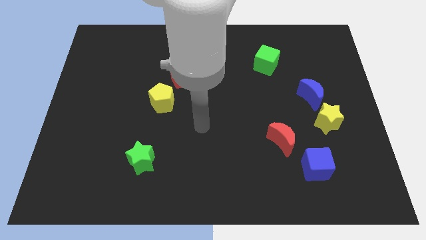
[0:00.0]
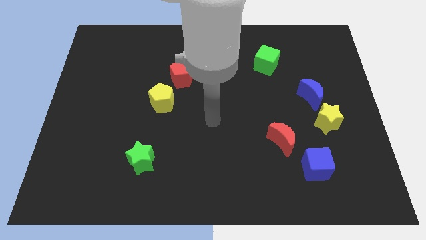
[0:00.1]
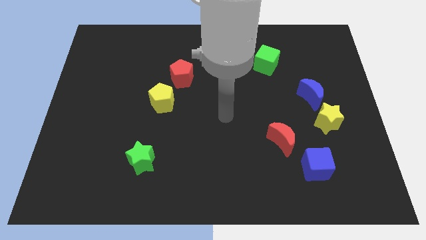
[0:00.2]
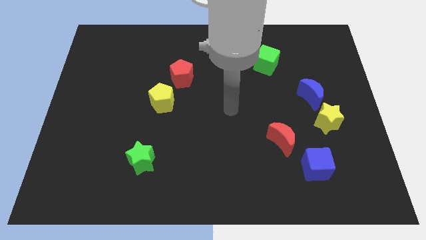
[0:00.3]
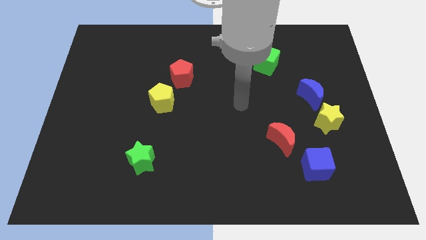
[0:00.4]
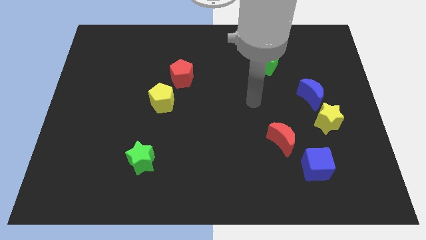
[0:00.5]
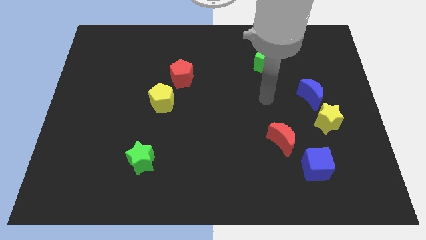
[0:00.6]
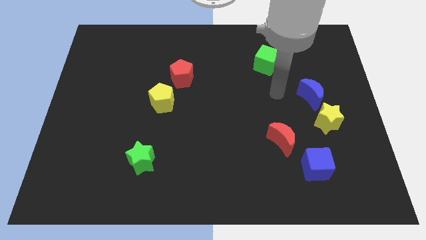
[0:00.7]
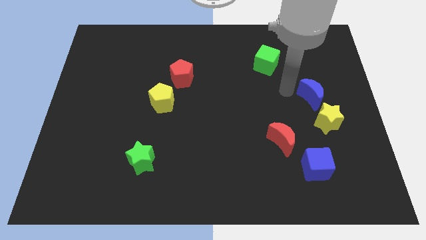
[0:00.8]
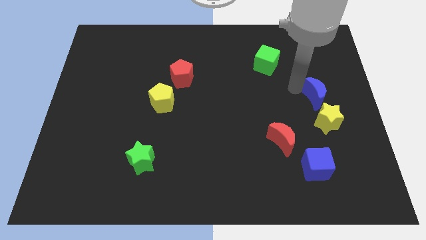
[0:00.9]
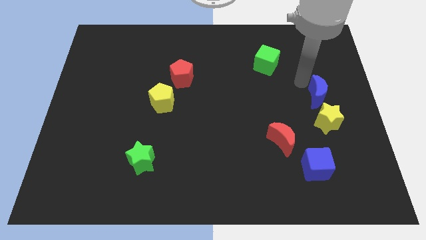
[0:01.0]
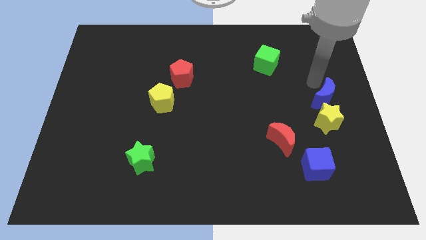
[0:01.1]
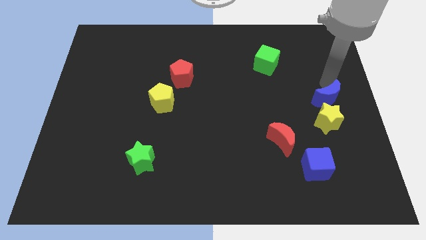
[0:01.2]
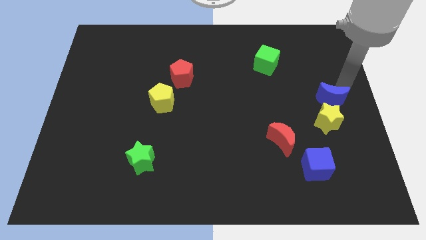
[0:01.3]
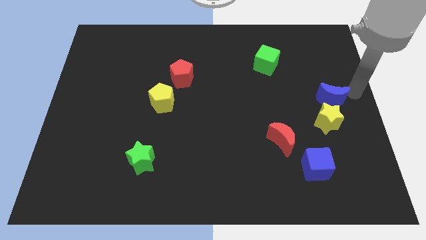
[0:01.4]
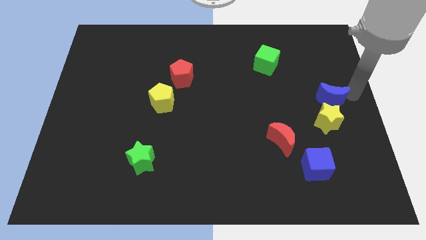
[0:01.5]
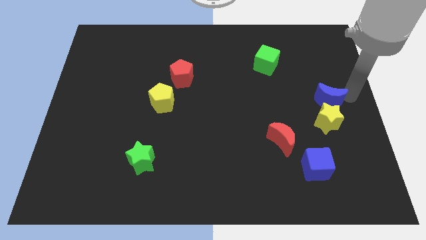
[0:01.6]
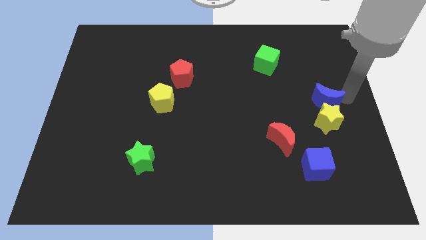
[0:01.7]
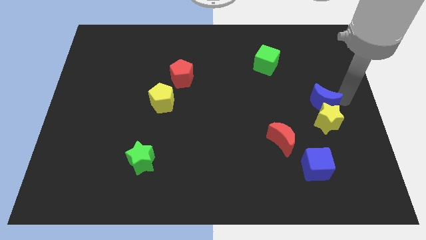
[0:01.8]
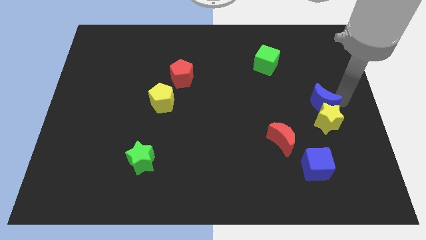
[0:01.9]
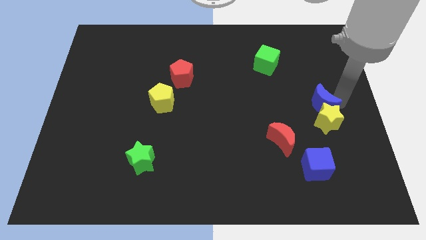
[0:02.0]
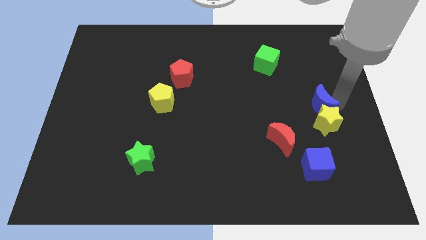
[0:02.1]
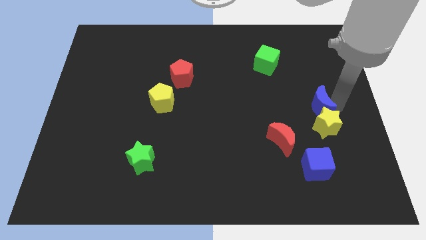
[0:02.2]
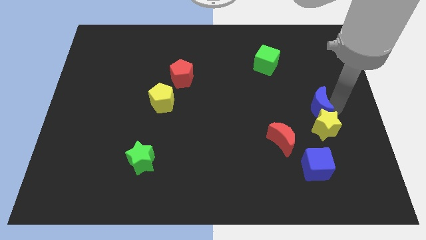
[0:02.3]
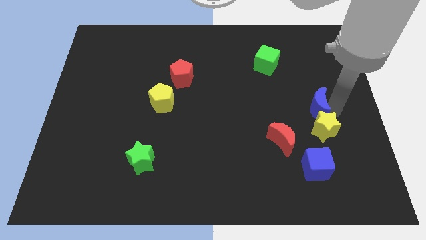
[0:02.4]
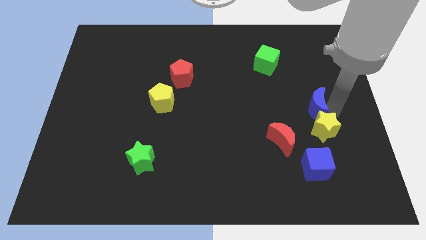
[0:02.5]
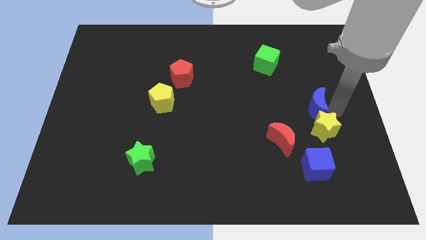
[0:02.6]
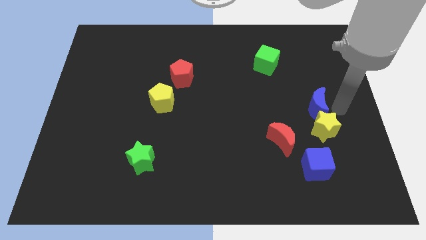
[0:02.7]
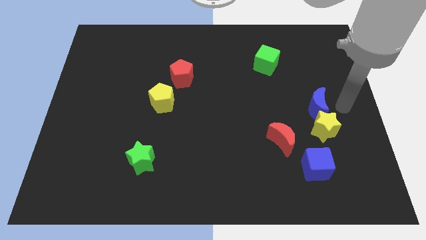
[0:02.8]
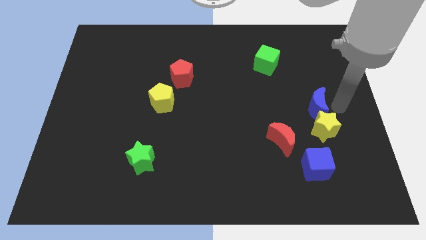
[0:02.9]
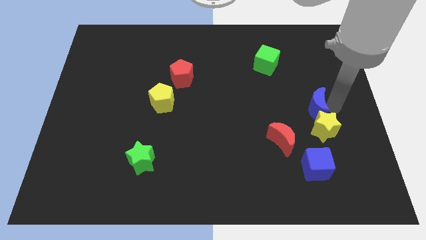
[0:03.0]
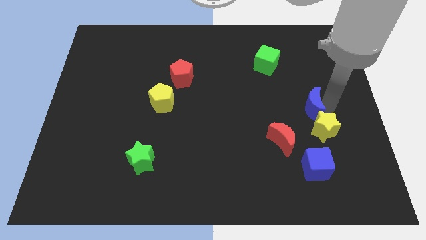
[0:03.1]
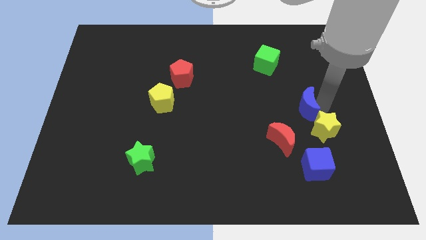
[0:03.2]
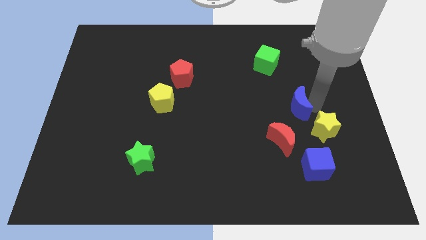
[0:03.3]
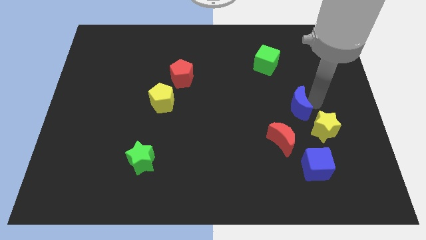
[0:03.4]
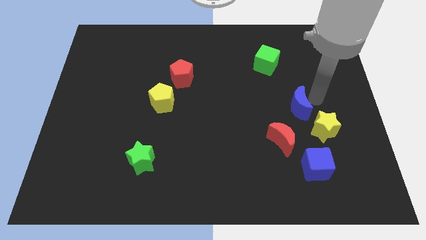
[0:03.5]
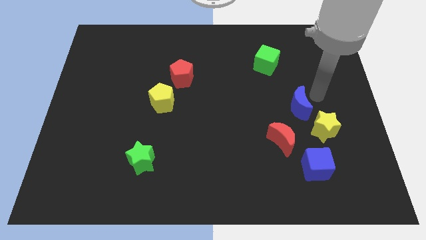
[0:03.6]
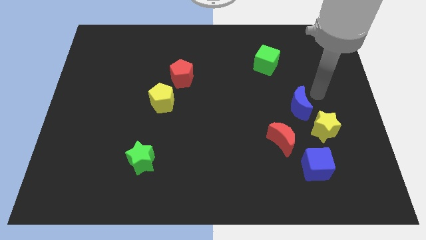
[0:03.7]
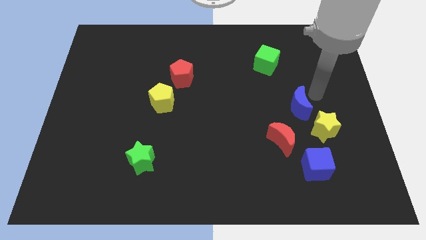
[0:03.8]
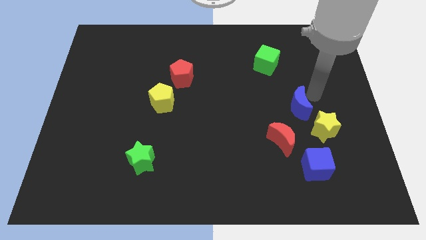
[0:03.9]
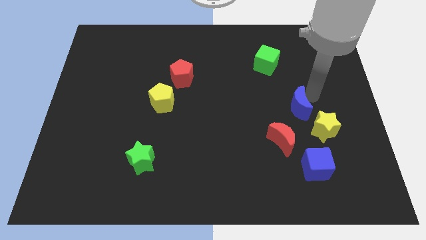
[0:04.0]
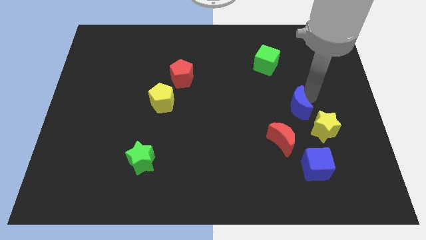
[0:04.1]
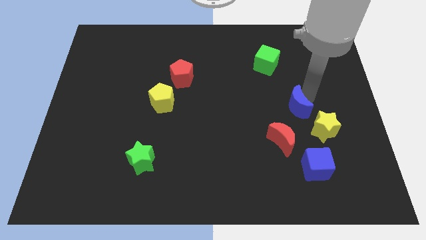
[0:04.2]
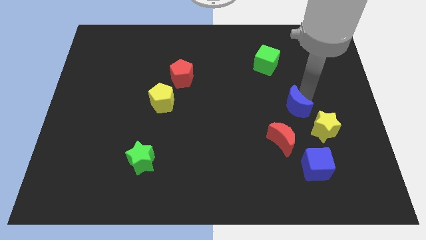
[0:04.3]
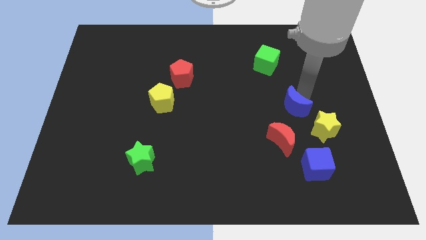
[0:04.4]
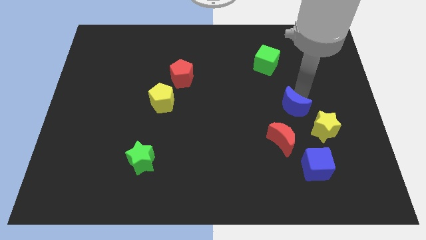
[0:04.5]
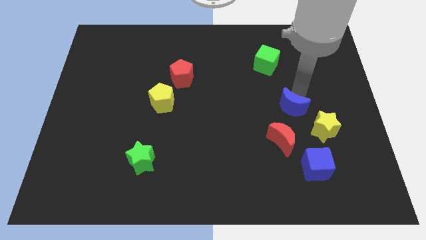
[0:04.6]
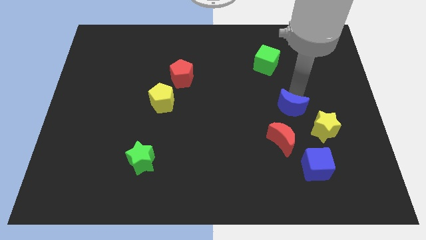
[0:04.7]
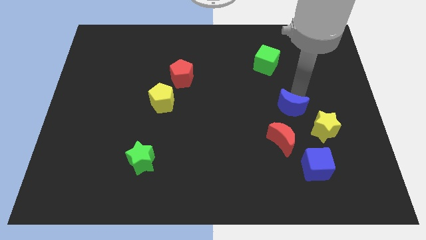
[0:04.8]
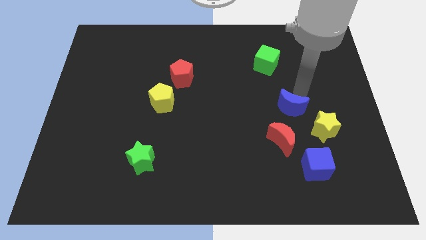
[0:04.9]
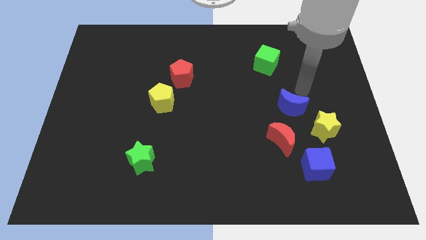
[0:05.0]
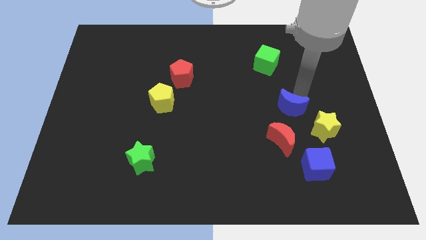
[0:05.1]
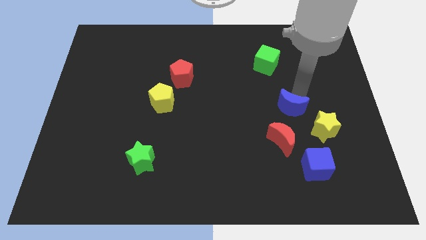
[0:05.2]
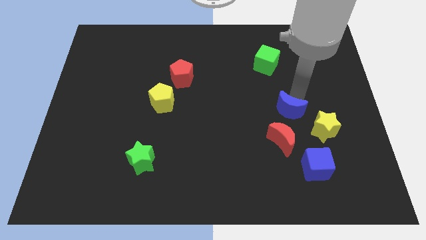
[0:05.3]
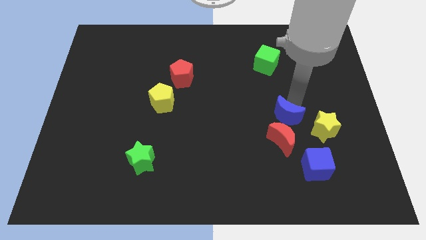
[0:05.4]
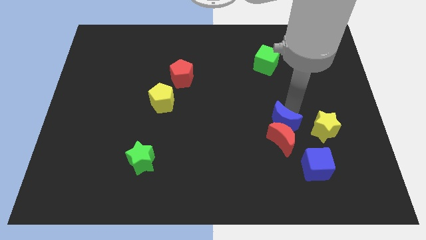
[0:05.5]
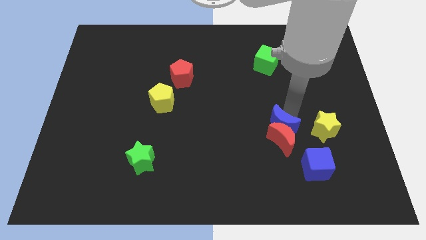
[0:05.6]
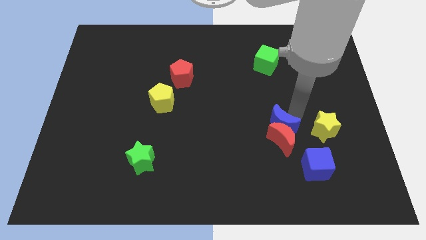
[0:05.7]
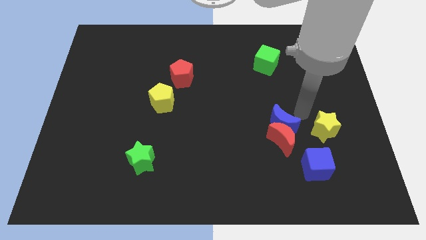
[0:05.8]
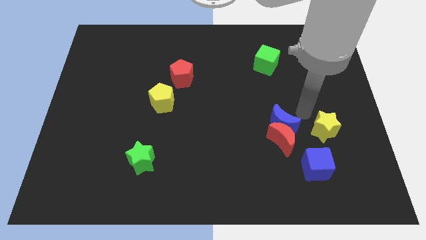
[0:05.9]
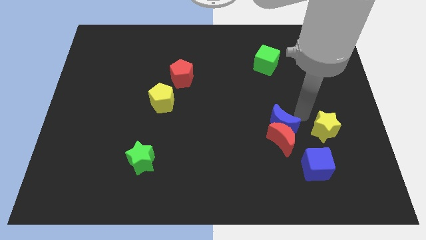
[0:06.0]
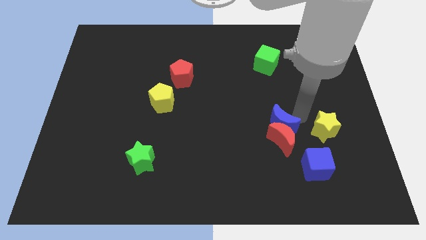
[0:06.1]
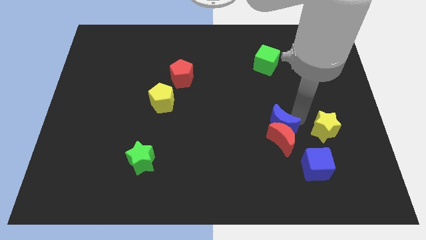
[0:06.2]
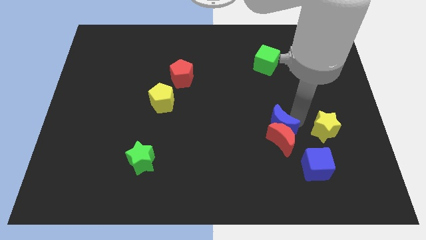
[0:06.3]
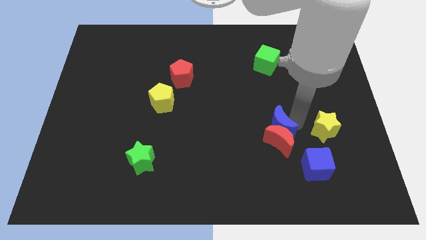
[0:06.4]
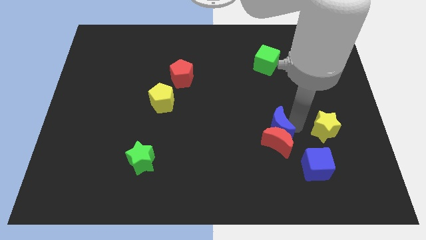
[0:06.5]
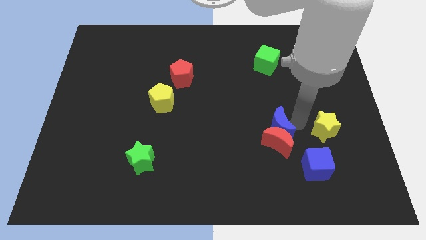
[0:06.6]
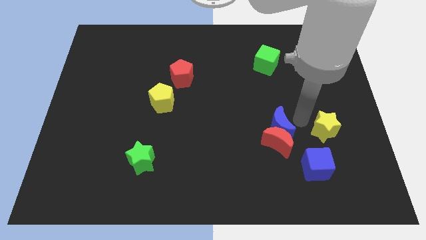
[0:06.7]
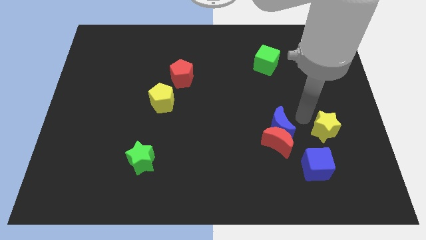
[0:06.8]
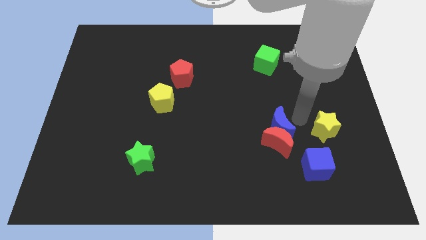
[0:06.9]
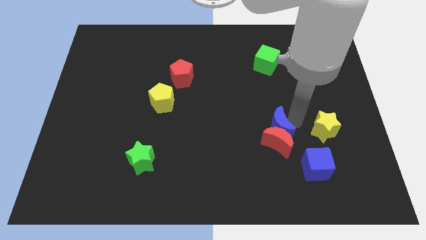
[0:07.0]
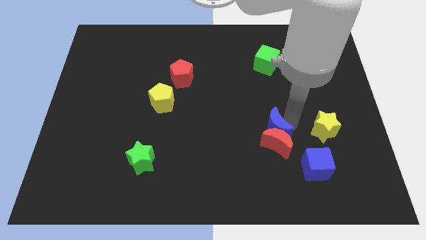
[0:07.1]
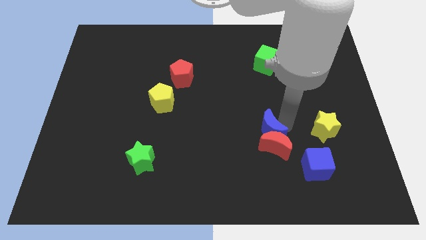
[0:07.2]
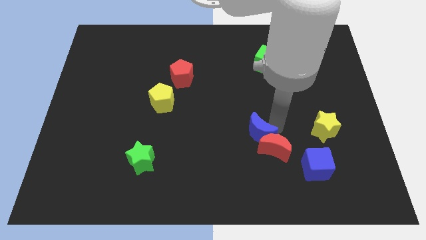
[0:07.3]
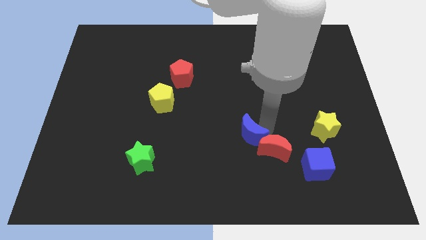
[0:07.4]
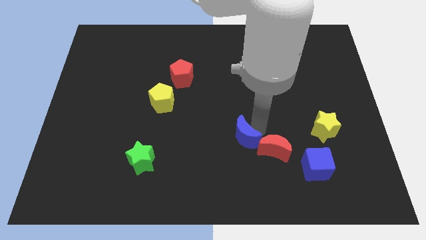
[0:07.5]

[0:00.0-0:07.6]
push the blue moon diagonally down and left

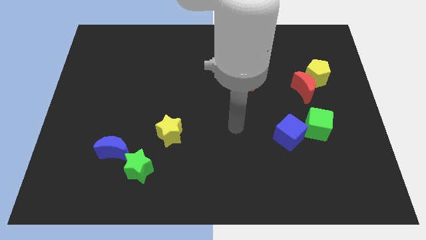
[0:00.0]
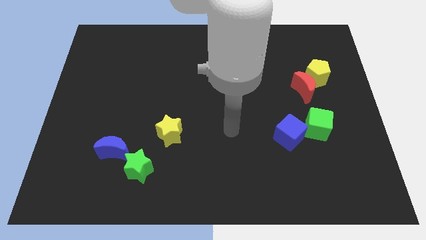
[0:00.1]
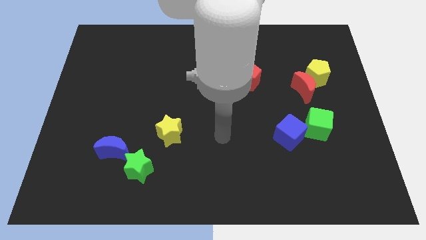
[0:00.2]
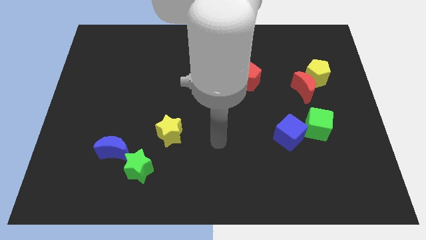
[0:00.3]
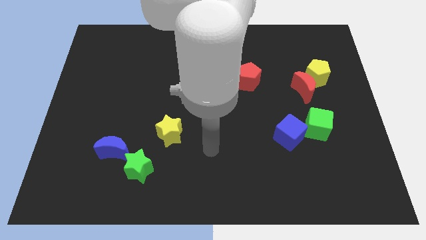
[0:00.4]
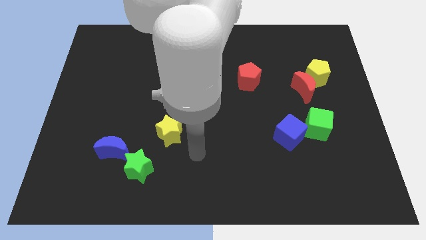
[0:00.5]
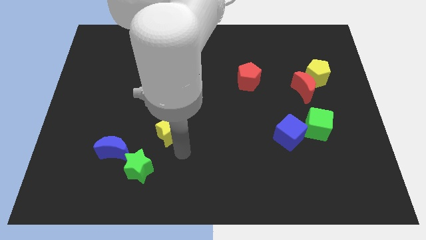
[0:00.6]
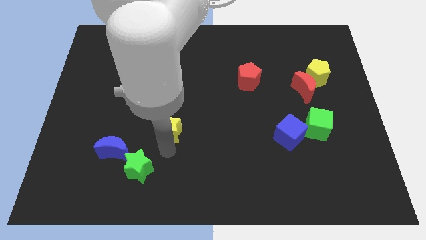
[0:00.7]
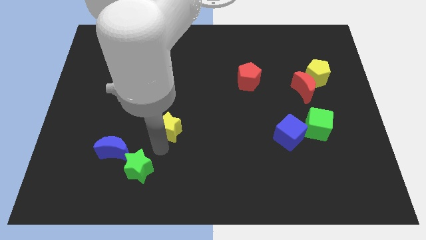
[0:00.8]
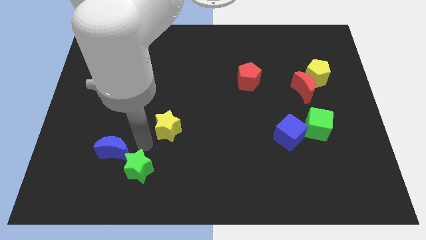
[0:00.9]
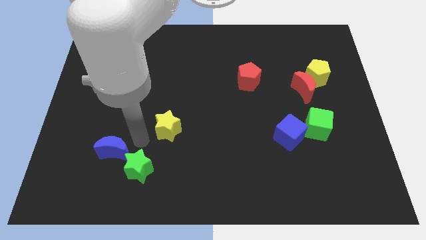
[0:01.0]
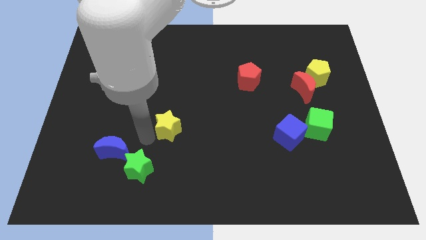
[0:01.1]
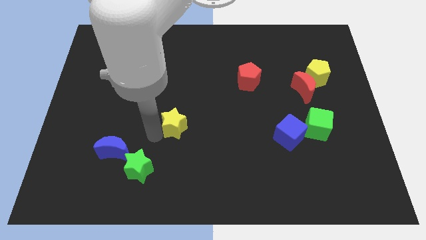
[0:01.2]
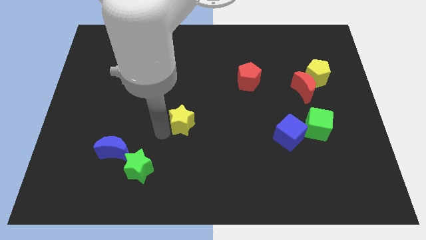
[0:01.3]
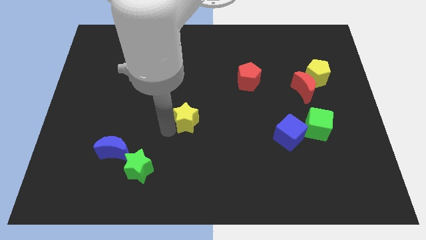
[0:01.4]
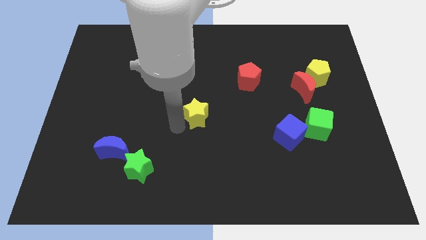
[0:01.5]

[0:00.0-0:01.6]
push the yellow star a little bit diagonally upwards and to the right
